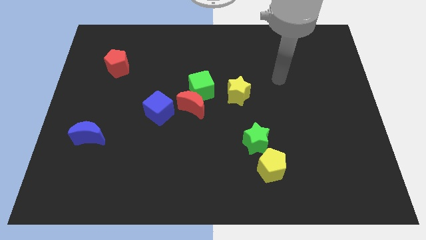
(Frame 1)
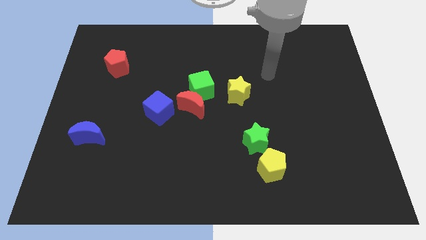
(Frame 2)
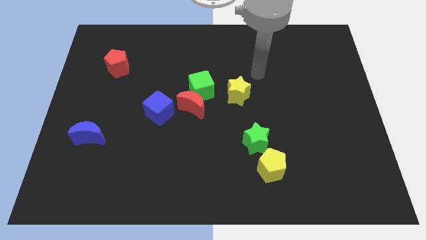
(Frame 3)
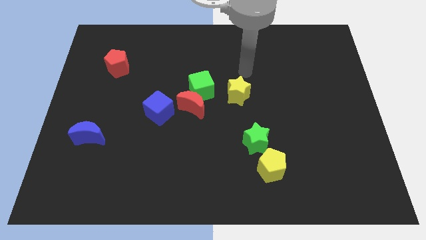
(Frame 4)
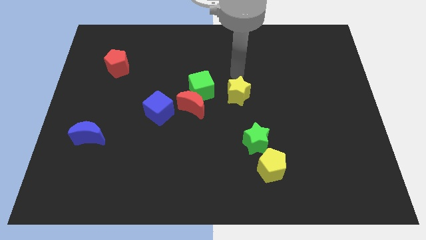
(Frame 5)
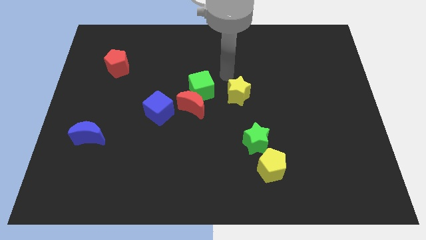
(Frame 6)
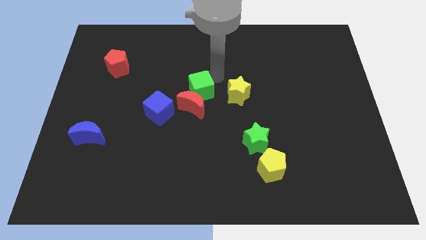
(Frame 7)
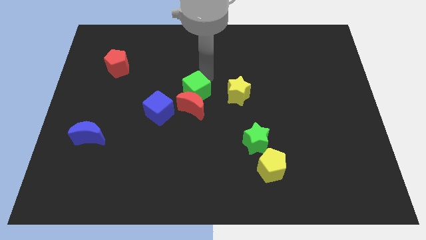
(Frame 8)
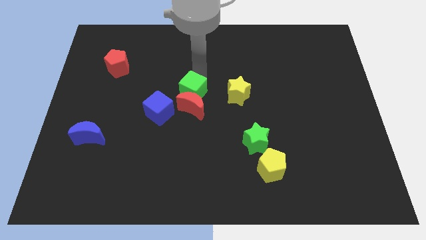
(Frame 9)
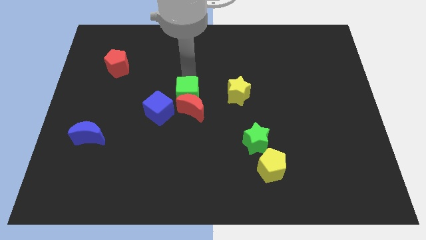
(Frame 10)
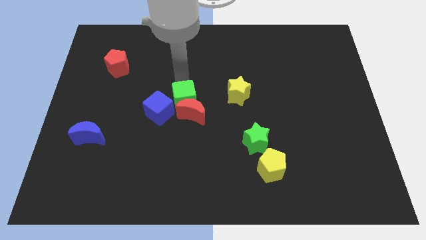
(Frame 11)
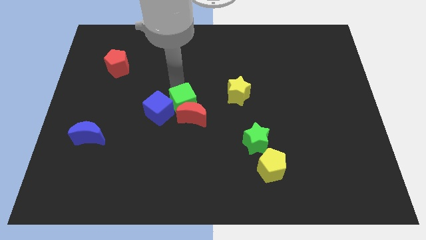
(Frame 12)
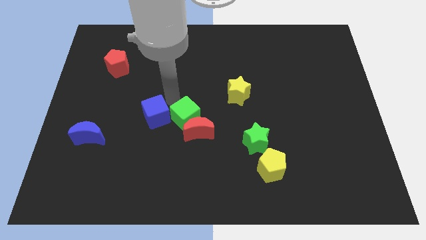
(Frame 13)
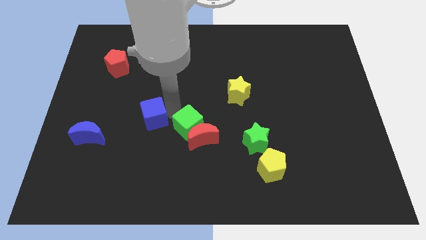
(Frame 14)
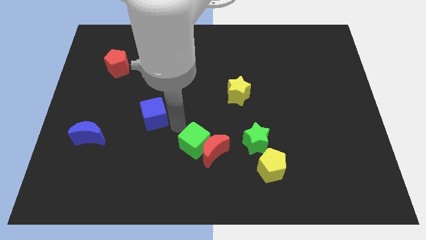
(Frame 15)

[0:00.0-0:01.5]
pull the red moon apart from the green cube and blue cube

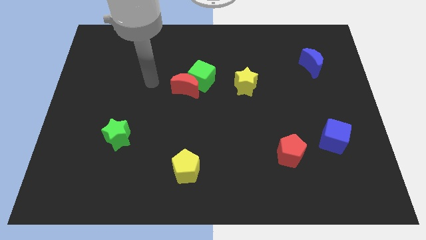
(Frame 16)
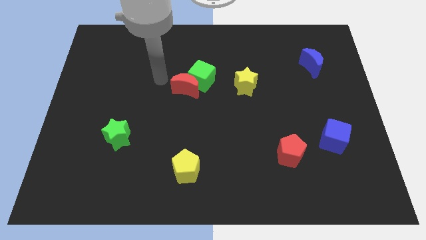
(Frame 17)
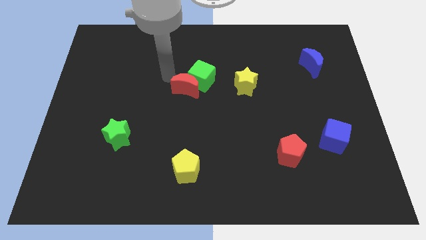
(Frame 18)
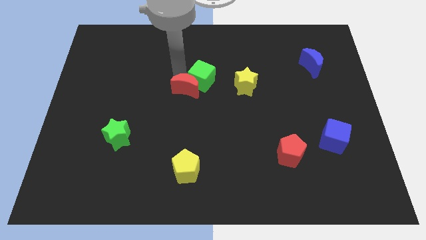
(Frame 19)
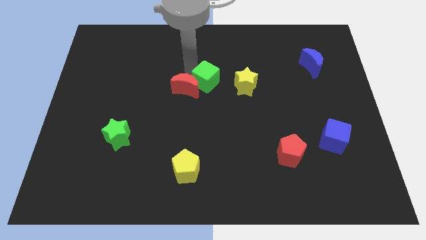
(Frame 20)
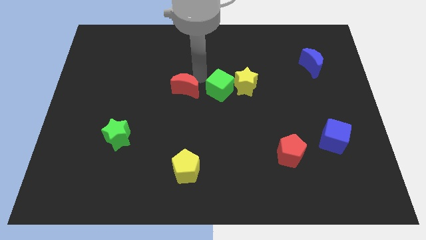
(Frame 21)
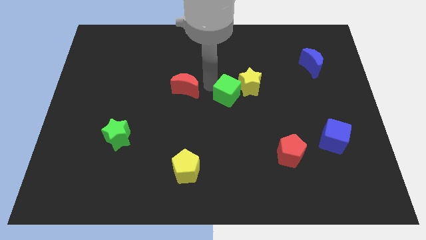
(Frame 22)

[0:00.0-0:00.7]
move the red moon away from the green cube

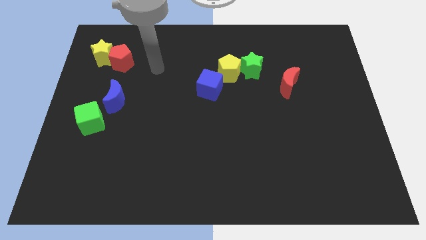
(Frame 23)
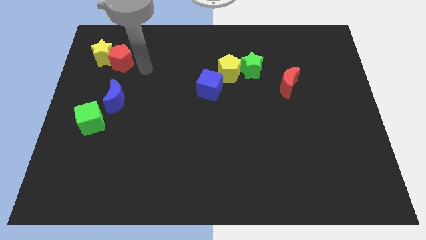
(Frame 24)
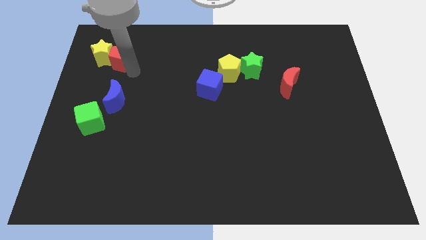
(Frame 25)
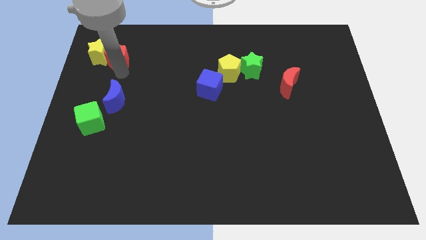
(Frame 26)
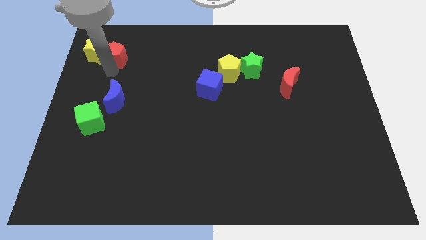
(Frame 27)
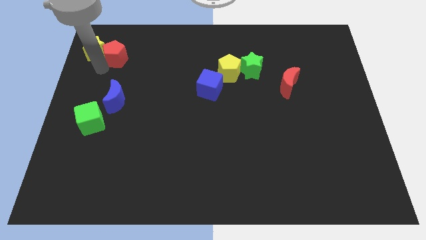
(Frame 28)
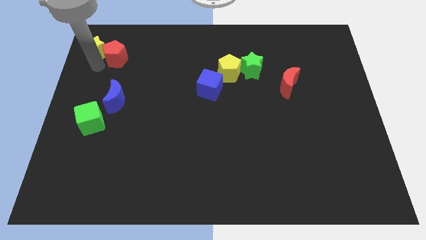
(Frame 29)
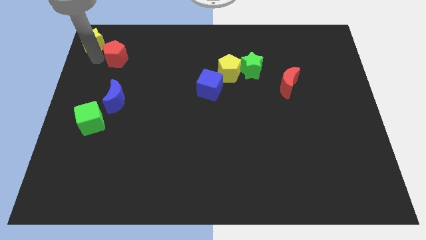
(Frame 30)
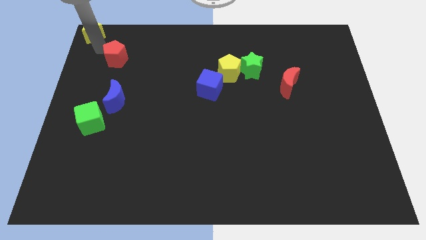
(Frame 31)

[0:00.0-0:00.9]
pull the red pentagon apart from the yellow star

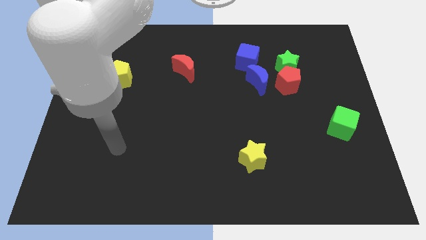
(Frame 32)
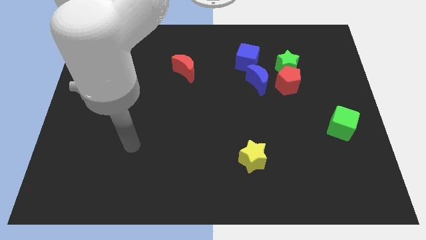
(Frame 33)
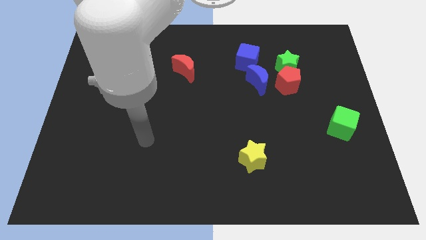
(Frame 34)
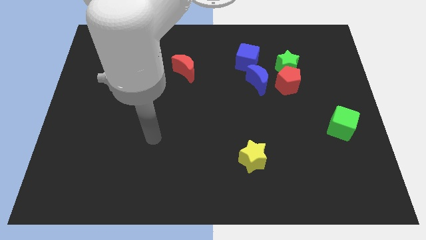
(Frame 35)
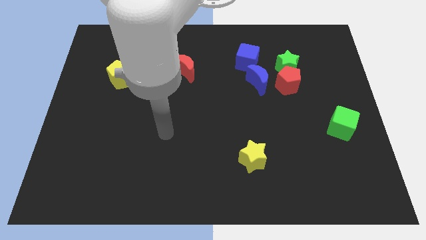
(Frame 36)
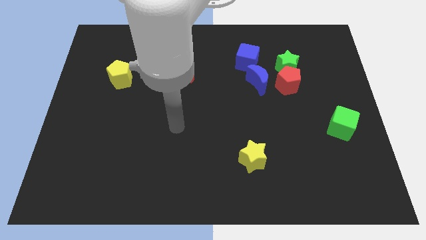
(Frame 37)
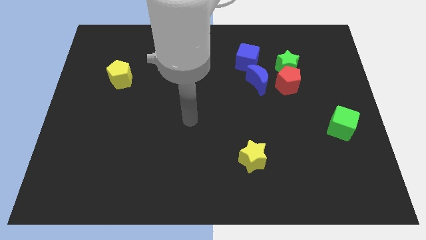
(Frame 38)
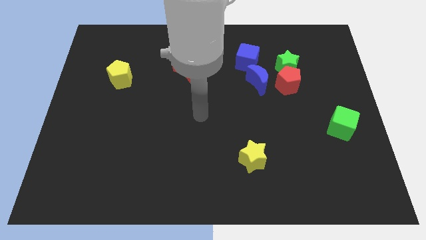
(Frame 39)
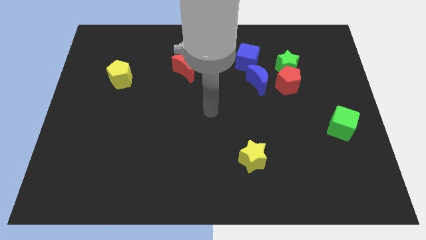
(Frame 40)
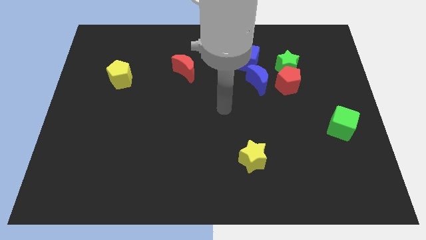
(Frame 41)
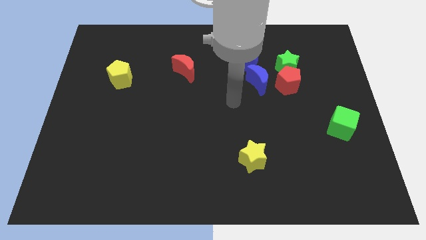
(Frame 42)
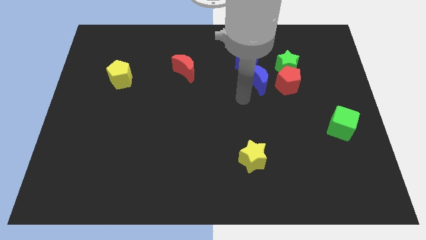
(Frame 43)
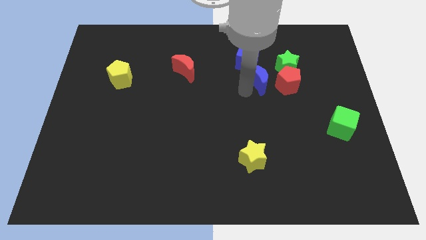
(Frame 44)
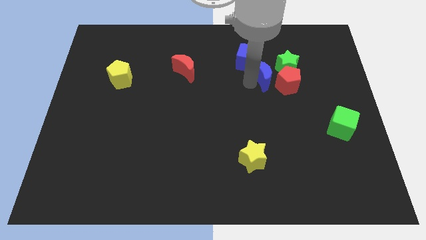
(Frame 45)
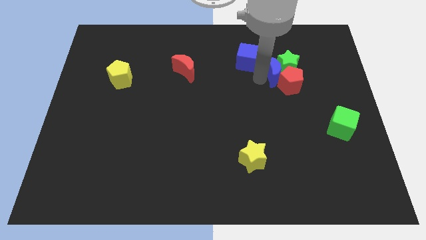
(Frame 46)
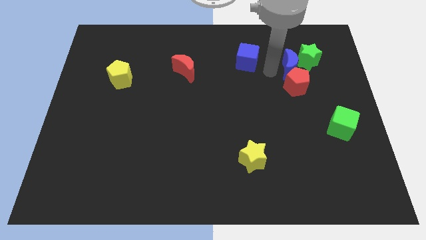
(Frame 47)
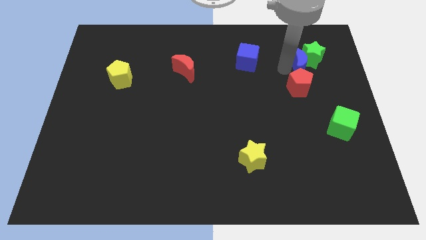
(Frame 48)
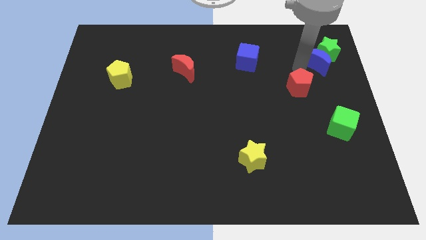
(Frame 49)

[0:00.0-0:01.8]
pull the red pentagon apart from the green star and blue moon

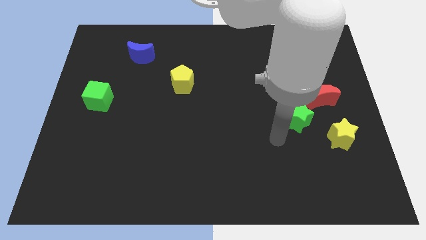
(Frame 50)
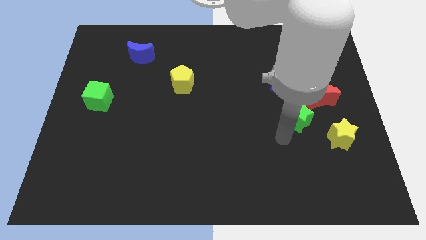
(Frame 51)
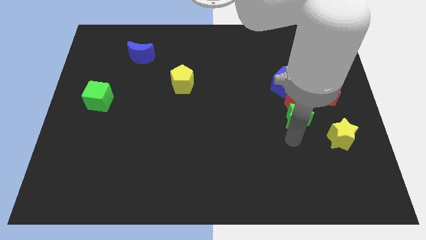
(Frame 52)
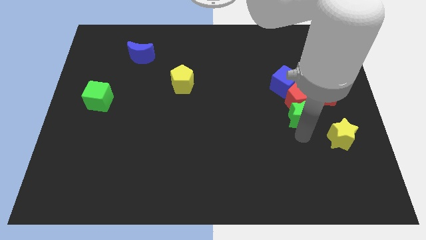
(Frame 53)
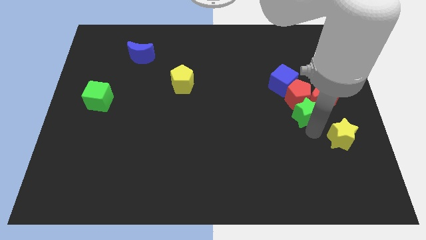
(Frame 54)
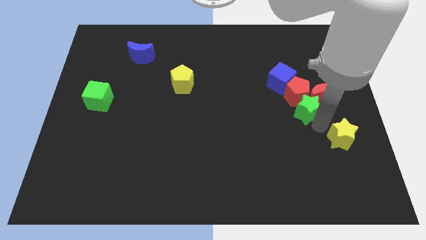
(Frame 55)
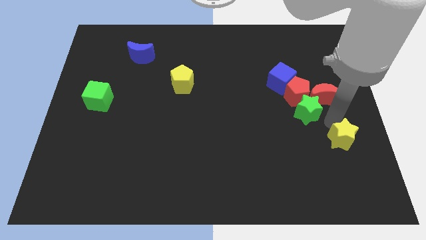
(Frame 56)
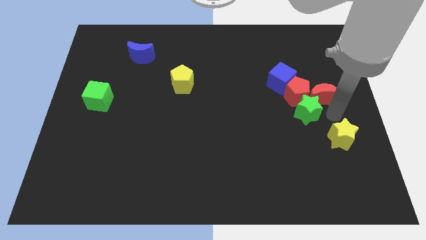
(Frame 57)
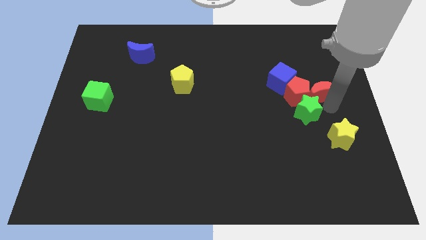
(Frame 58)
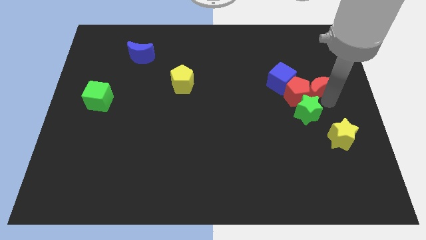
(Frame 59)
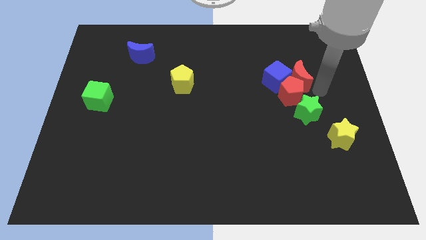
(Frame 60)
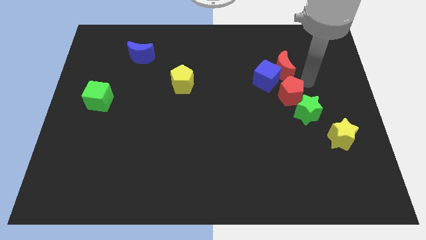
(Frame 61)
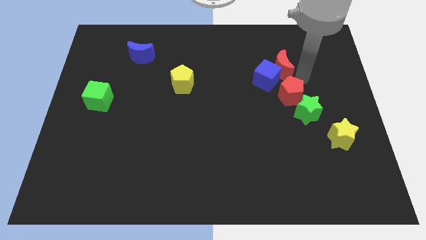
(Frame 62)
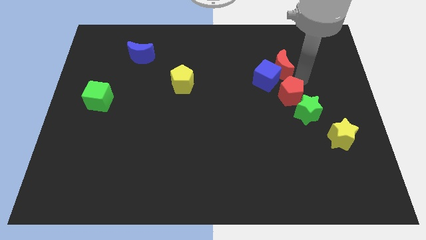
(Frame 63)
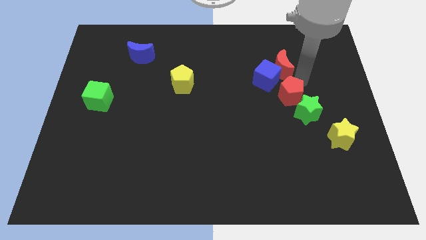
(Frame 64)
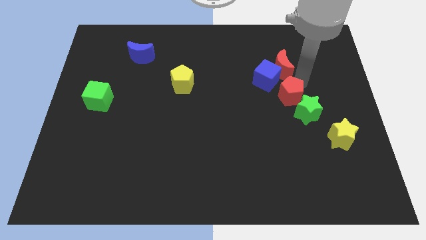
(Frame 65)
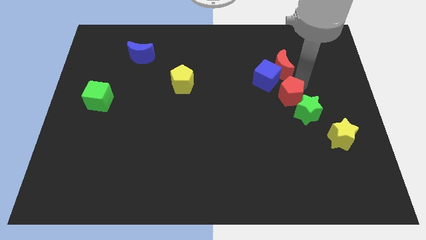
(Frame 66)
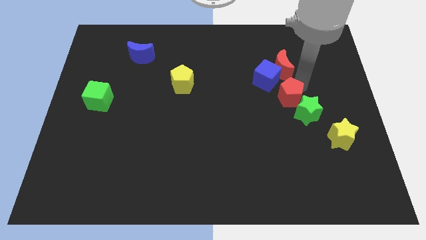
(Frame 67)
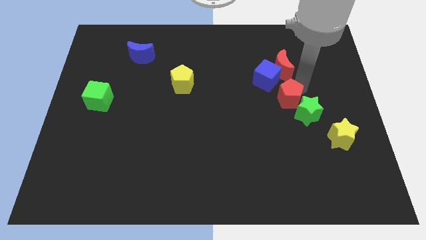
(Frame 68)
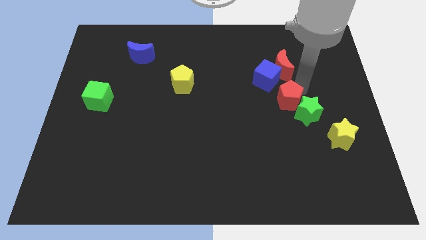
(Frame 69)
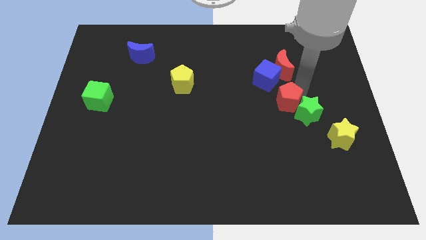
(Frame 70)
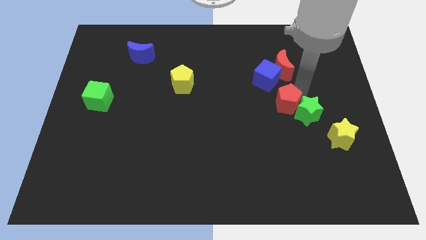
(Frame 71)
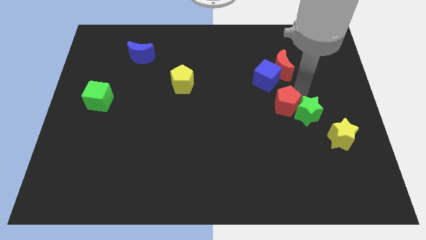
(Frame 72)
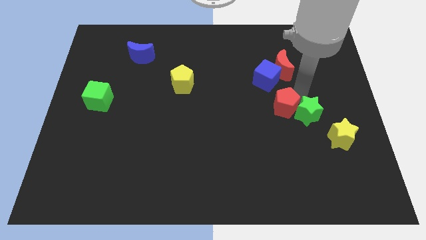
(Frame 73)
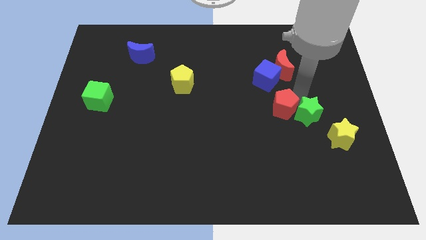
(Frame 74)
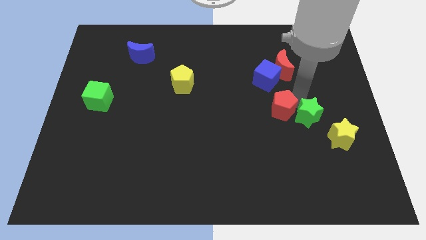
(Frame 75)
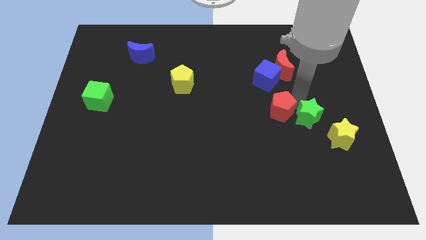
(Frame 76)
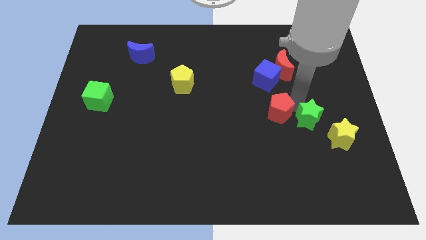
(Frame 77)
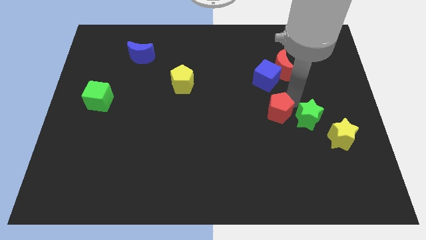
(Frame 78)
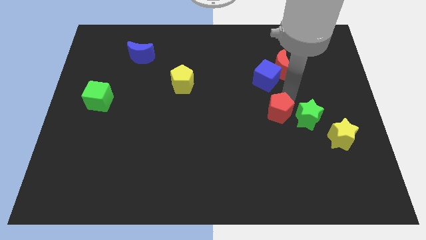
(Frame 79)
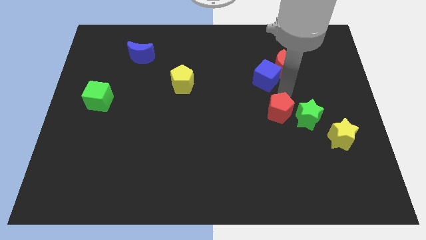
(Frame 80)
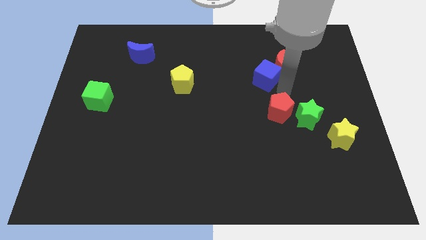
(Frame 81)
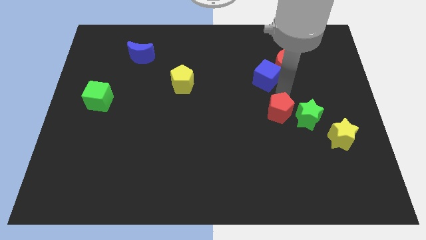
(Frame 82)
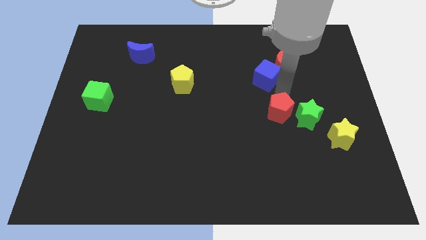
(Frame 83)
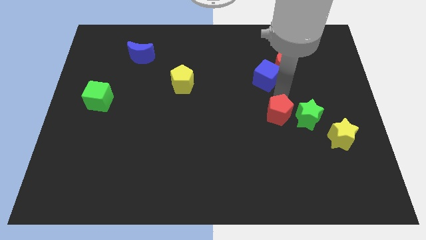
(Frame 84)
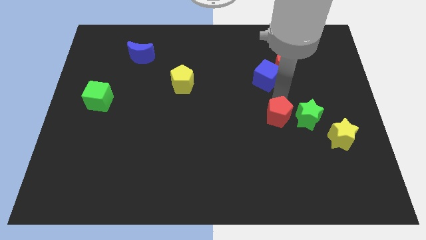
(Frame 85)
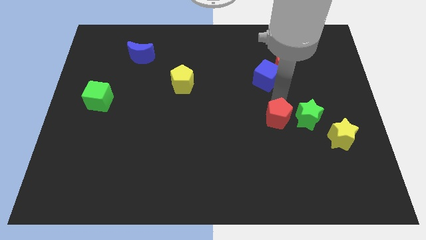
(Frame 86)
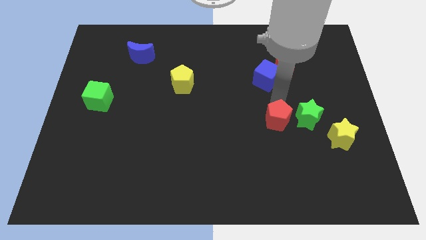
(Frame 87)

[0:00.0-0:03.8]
move the red pentagon away from the group of blocks

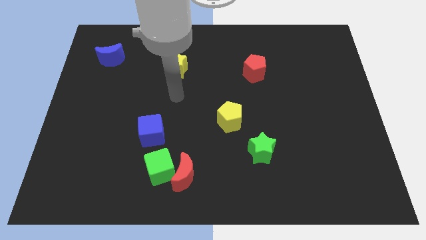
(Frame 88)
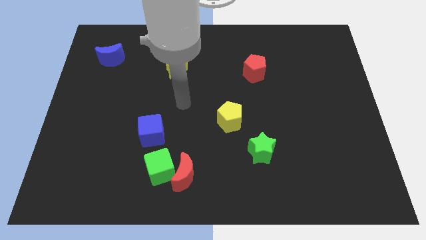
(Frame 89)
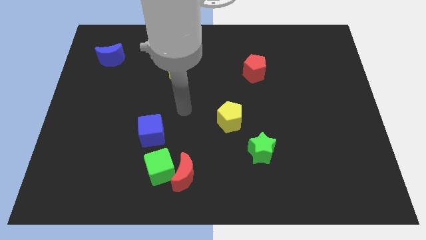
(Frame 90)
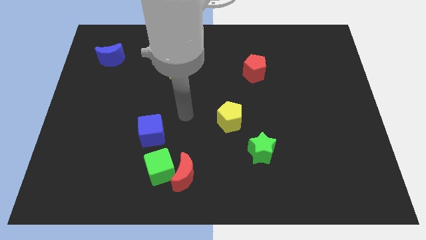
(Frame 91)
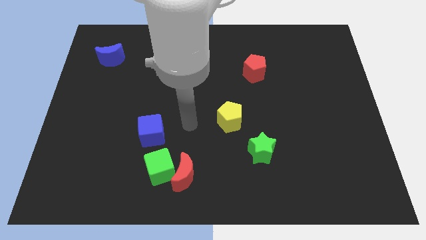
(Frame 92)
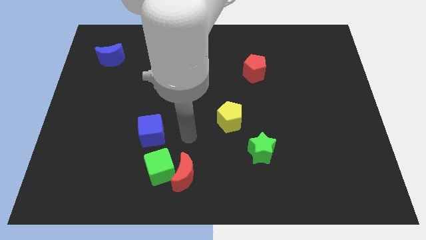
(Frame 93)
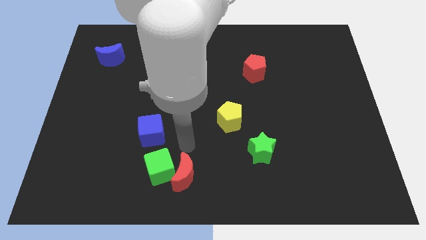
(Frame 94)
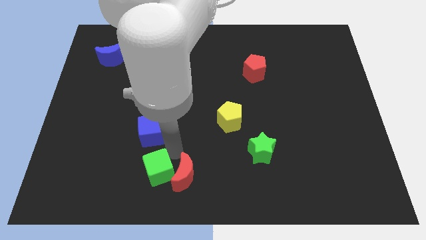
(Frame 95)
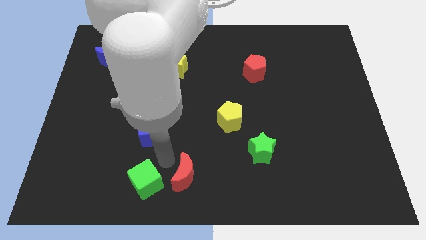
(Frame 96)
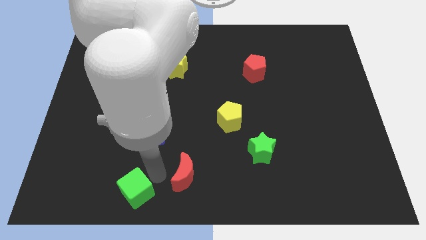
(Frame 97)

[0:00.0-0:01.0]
separate the red moon from the green cube
